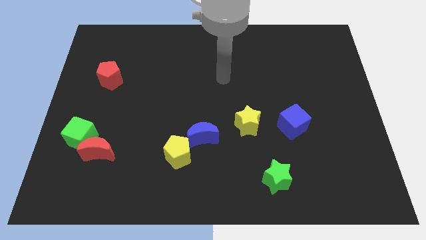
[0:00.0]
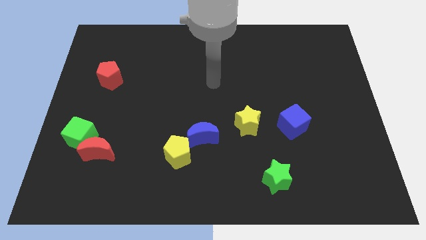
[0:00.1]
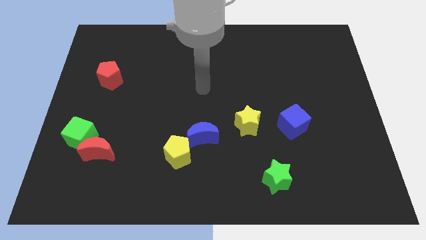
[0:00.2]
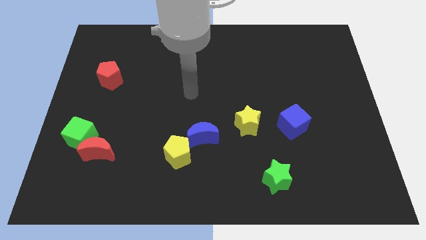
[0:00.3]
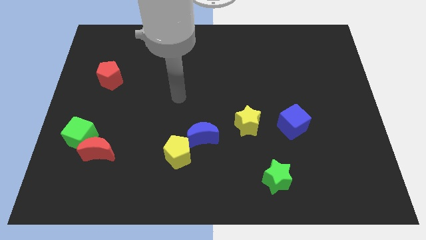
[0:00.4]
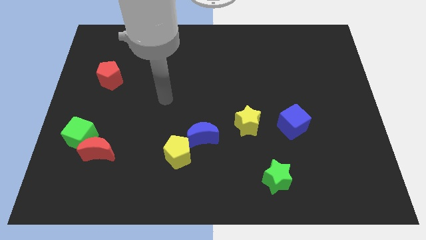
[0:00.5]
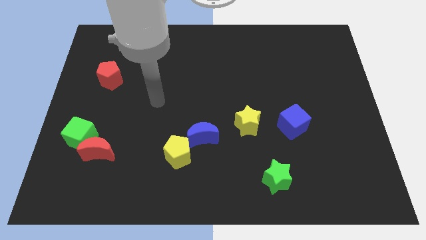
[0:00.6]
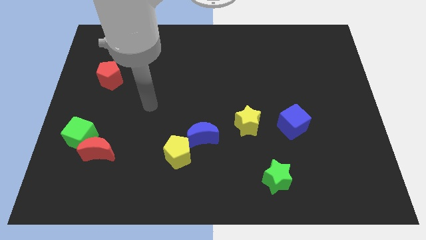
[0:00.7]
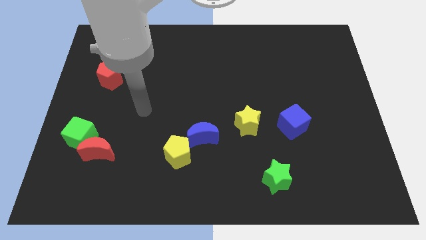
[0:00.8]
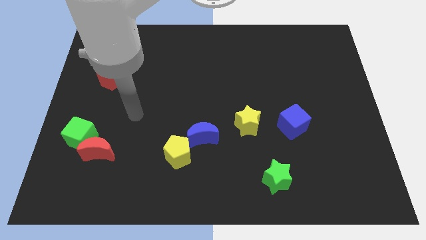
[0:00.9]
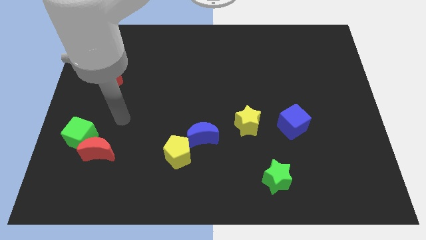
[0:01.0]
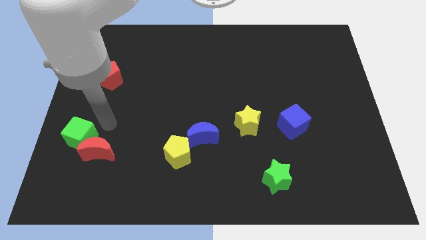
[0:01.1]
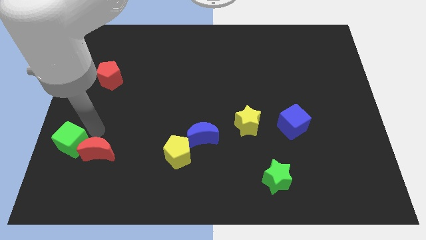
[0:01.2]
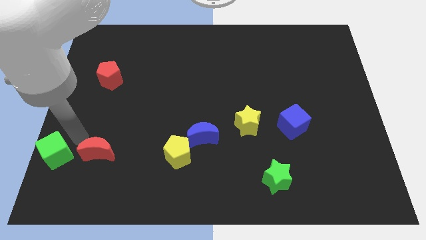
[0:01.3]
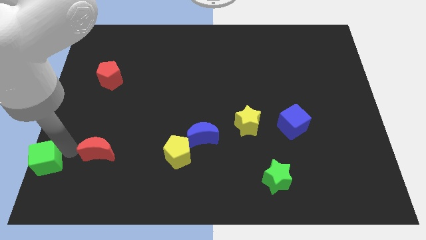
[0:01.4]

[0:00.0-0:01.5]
separate the red moon from the green cube

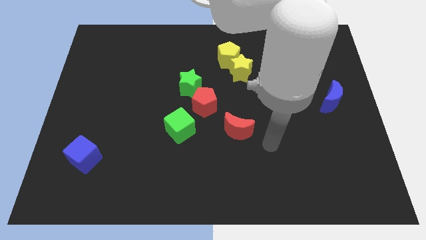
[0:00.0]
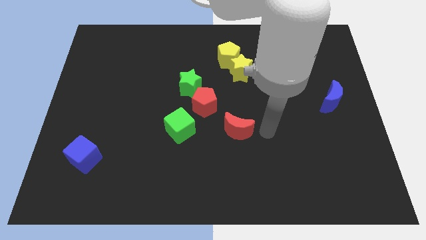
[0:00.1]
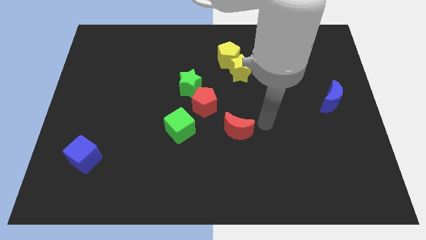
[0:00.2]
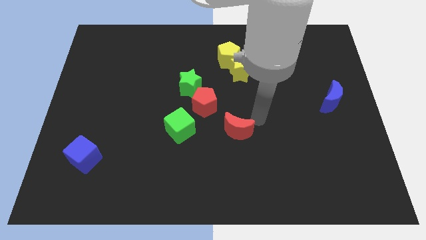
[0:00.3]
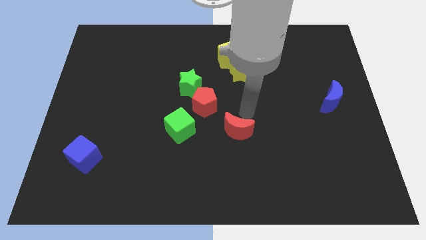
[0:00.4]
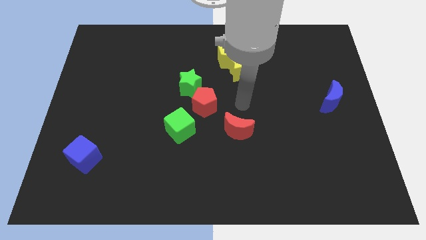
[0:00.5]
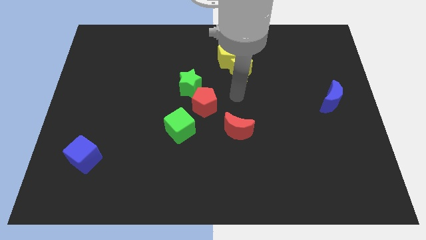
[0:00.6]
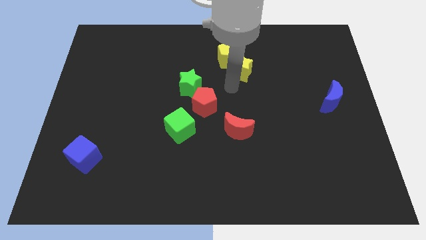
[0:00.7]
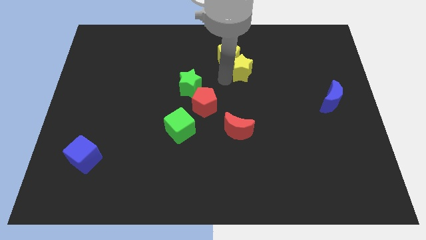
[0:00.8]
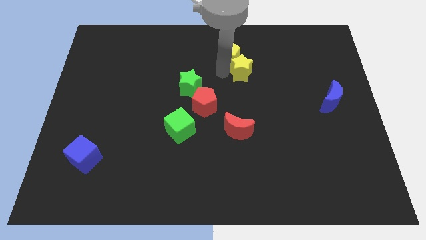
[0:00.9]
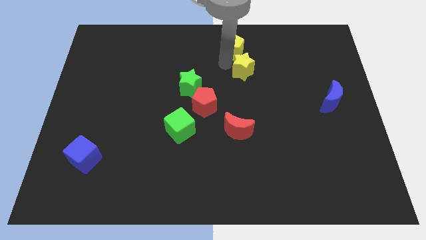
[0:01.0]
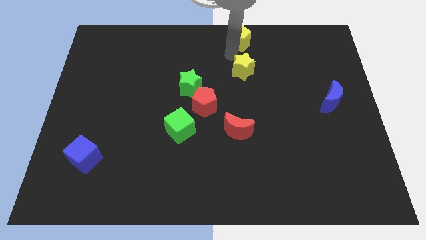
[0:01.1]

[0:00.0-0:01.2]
pull the yellow star apart from the yellow pentagon

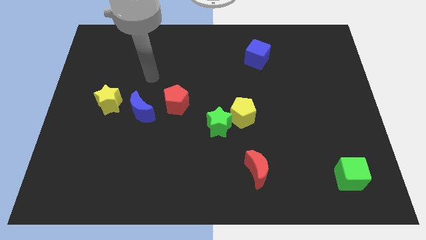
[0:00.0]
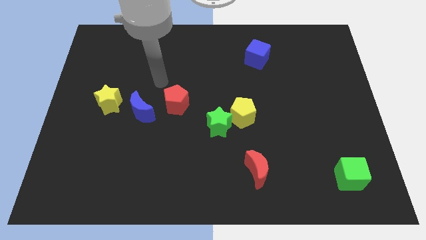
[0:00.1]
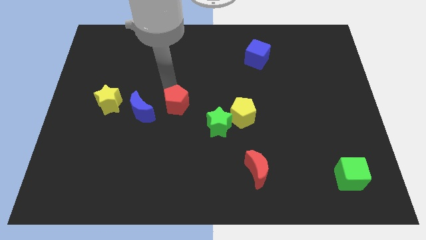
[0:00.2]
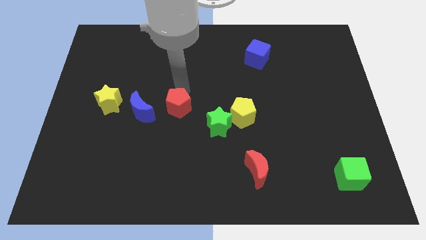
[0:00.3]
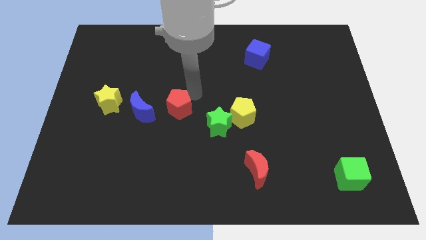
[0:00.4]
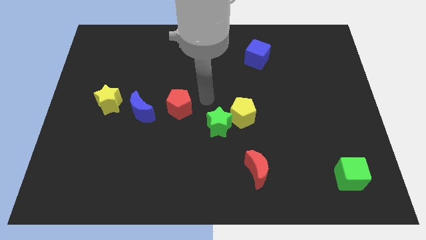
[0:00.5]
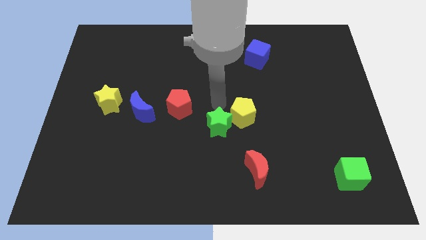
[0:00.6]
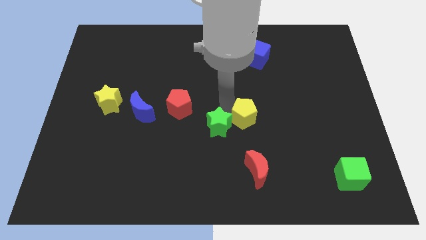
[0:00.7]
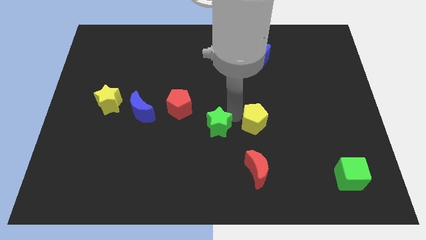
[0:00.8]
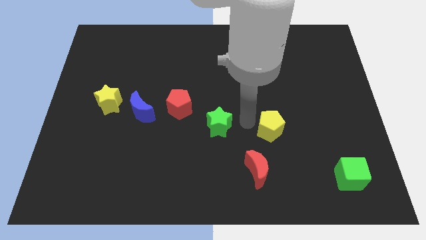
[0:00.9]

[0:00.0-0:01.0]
move the green star away from the yellow pentagon

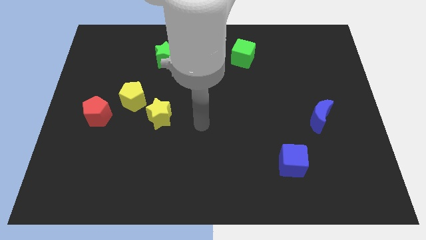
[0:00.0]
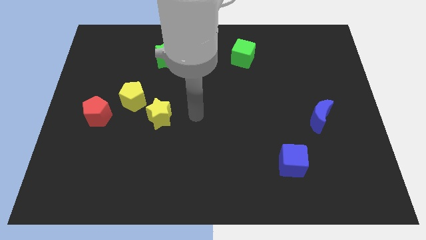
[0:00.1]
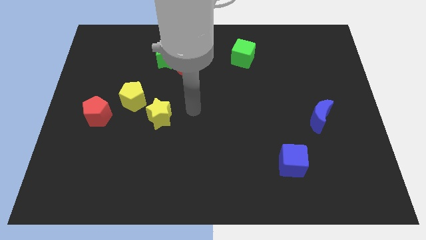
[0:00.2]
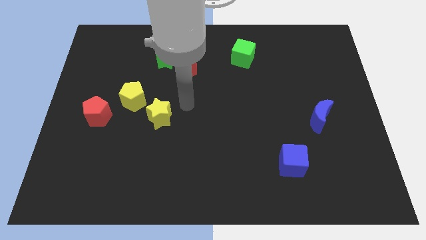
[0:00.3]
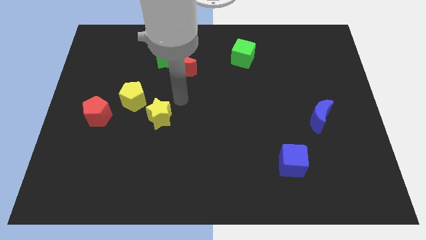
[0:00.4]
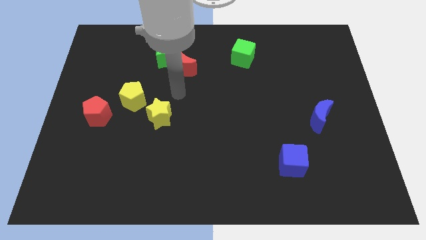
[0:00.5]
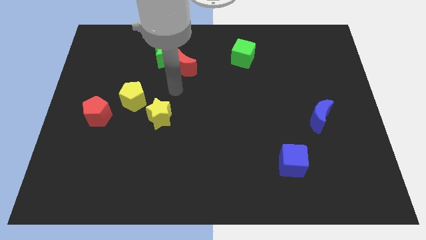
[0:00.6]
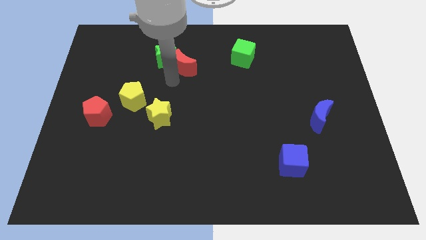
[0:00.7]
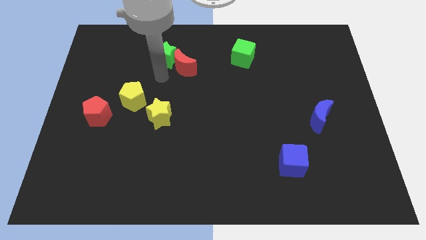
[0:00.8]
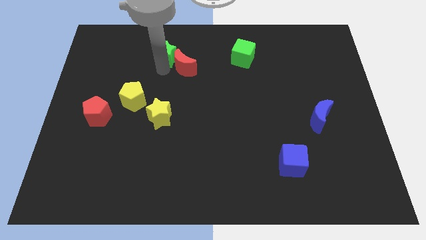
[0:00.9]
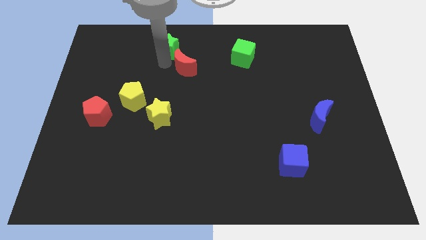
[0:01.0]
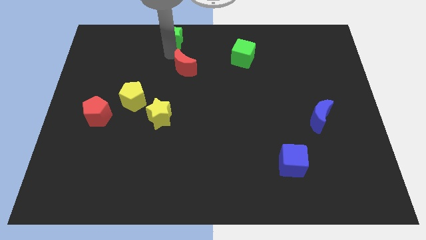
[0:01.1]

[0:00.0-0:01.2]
separate the red moon from the green star

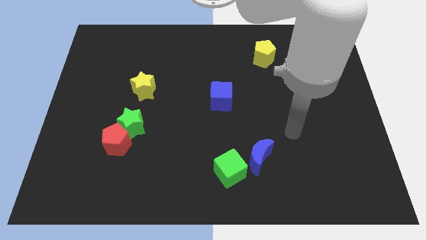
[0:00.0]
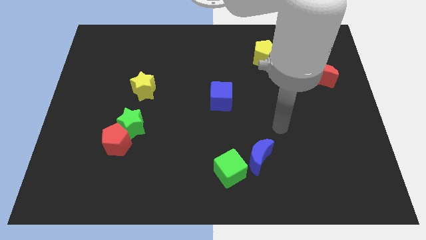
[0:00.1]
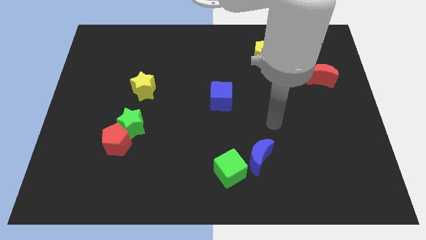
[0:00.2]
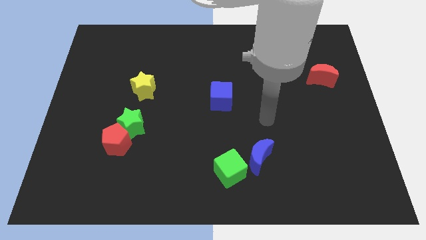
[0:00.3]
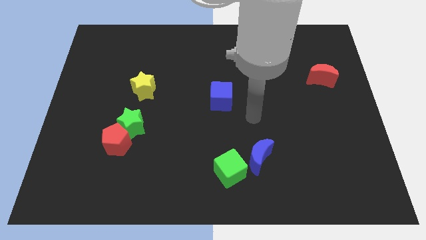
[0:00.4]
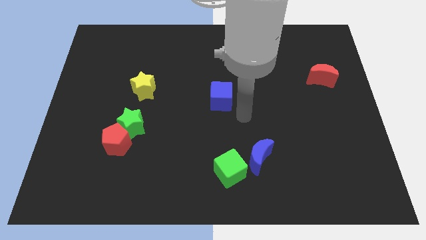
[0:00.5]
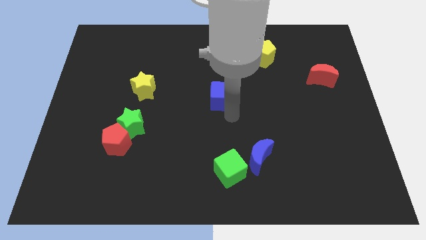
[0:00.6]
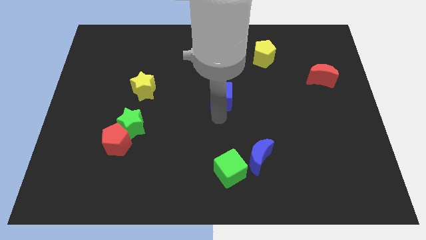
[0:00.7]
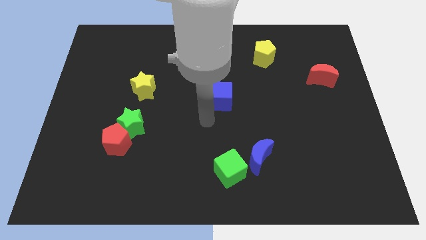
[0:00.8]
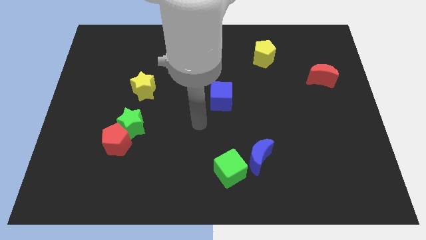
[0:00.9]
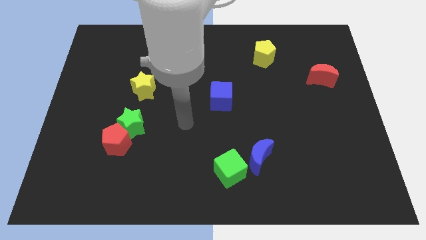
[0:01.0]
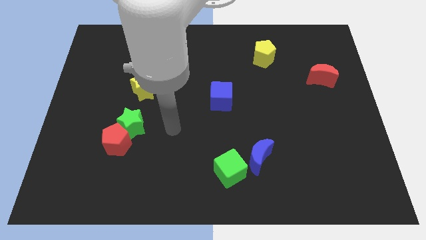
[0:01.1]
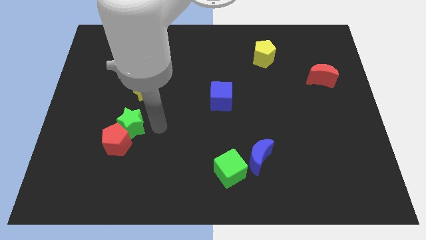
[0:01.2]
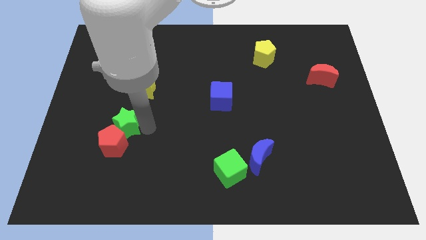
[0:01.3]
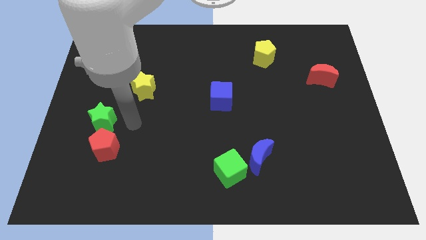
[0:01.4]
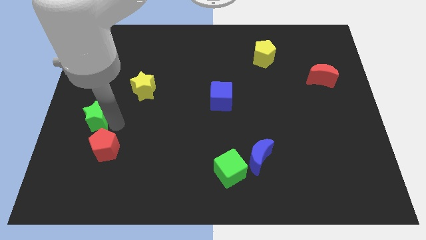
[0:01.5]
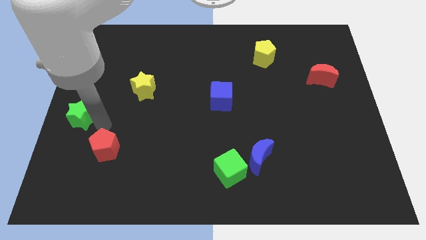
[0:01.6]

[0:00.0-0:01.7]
pull the red pentagon apart from the green star

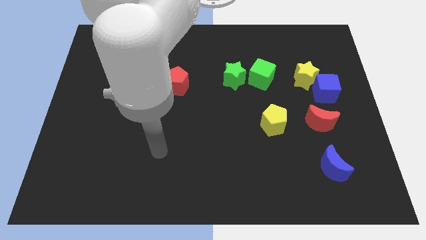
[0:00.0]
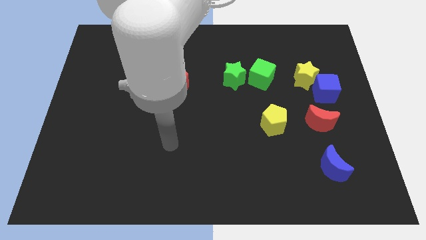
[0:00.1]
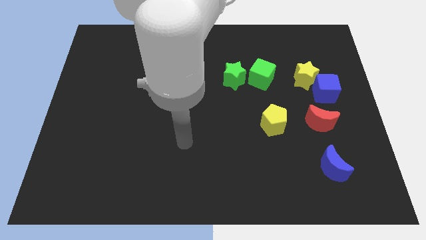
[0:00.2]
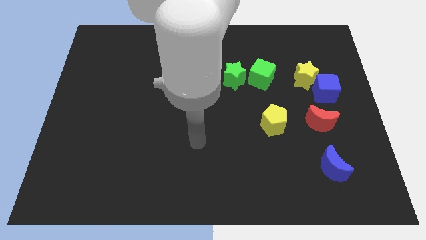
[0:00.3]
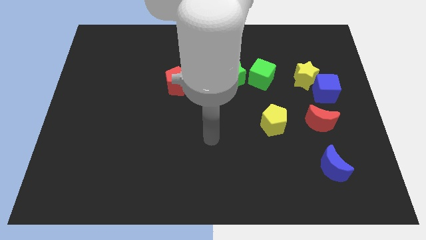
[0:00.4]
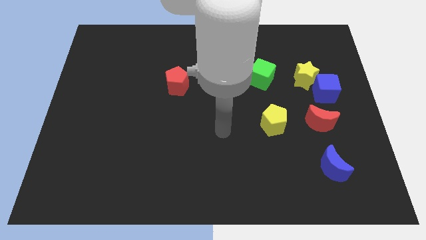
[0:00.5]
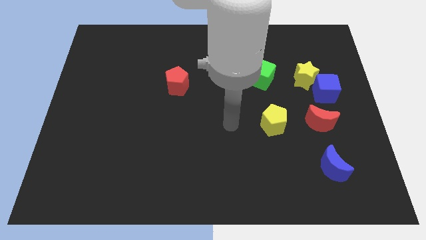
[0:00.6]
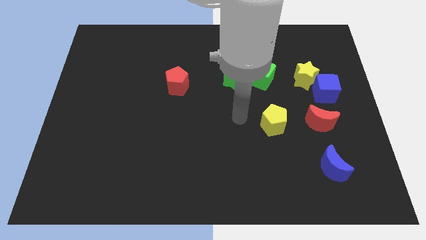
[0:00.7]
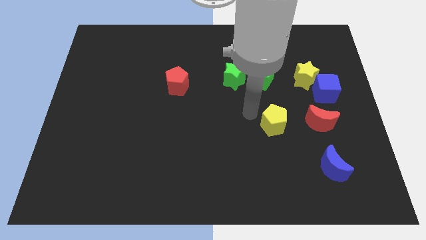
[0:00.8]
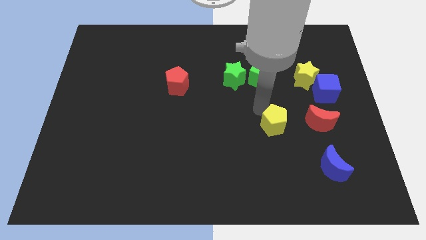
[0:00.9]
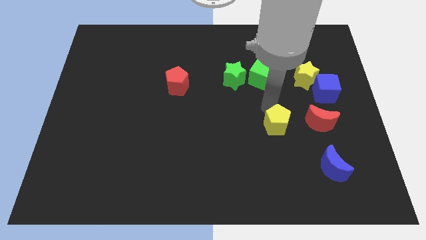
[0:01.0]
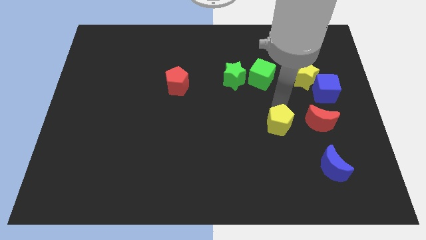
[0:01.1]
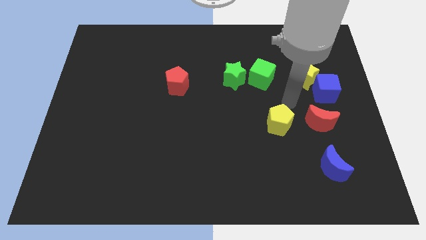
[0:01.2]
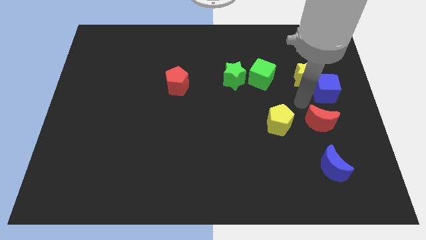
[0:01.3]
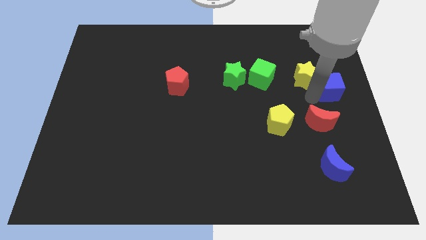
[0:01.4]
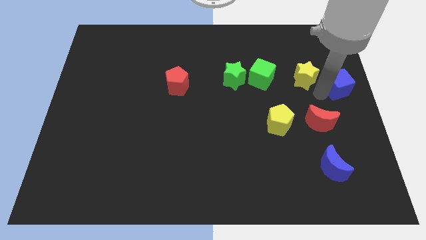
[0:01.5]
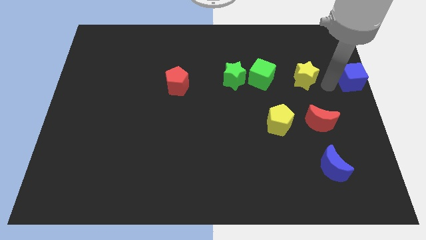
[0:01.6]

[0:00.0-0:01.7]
separate the yellow star from the blue cube

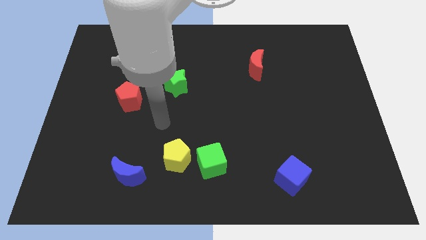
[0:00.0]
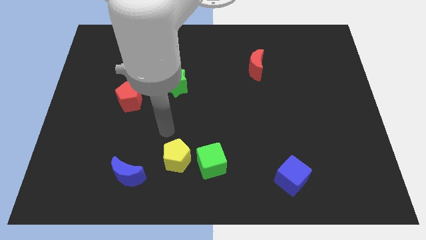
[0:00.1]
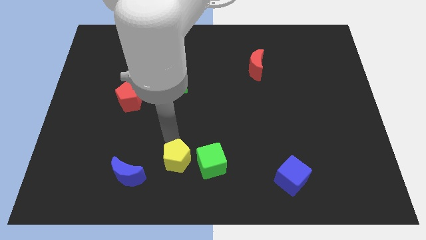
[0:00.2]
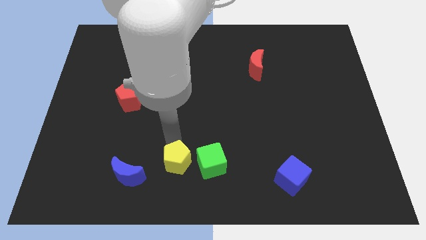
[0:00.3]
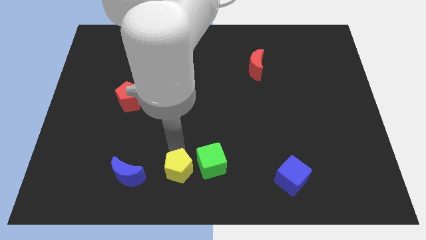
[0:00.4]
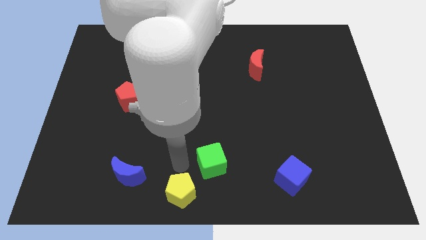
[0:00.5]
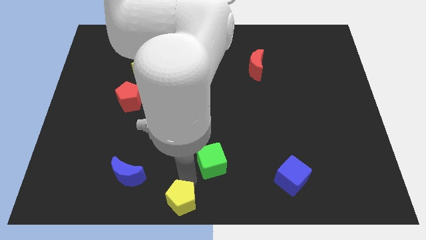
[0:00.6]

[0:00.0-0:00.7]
move the green cube away from the yellow pentagon

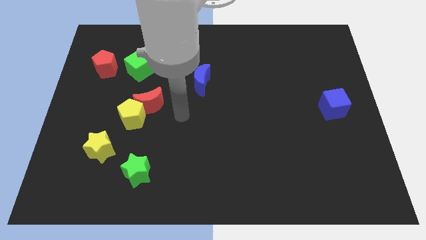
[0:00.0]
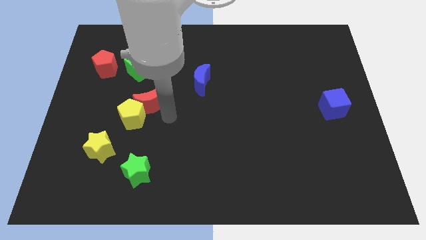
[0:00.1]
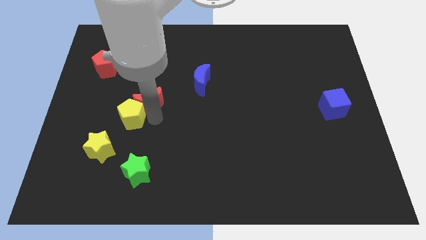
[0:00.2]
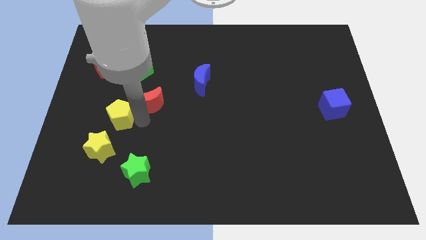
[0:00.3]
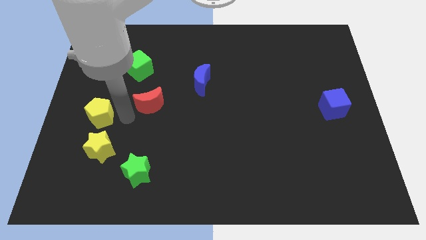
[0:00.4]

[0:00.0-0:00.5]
separate the red moon from the yellow pentagon
